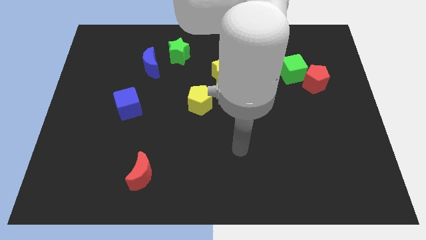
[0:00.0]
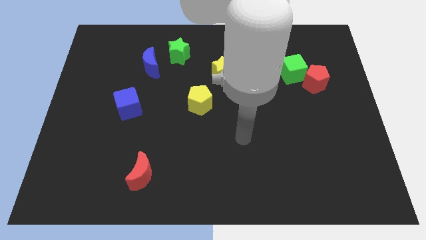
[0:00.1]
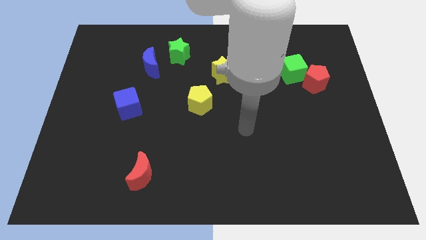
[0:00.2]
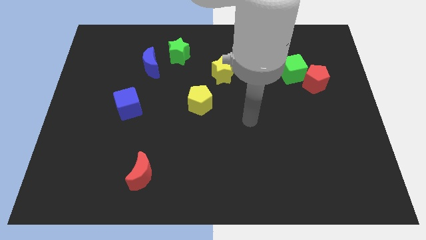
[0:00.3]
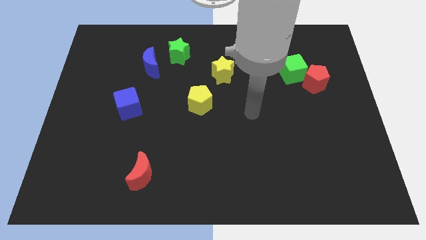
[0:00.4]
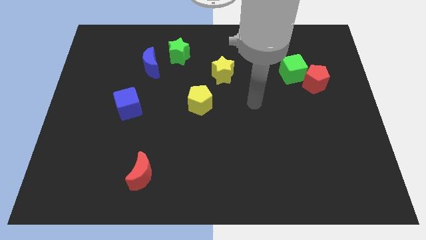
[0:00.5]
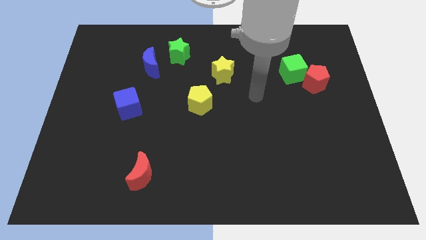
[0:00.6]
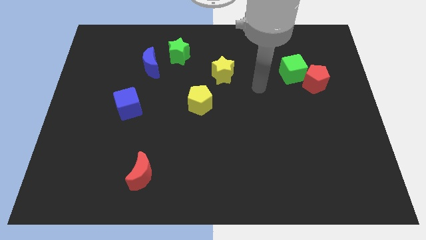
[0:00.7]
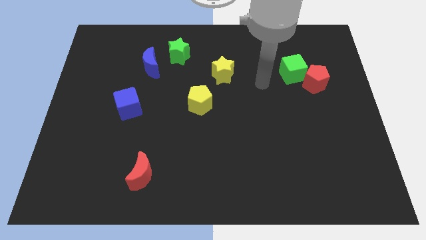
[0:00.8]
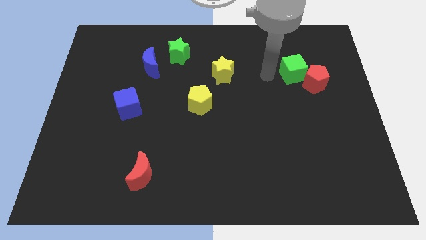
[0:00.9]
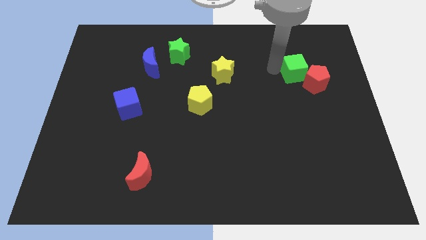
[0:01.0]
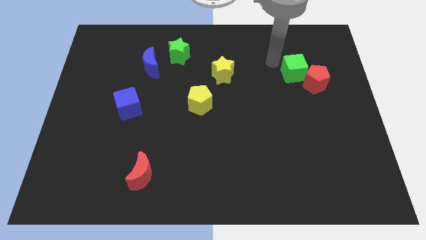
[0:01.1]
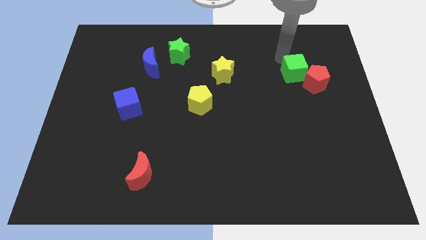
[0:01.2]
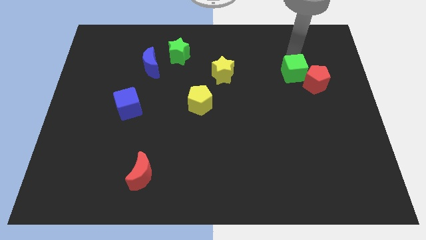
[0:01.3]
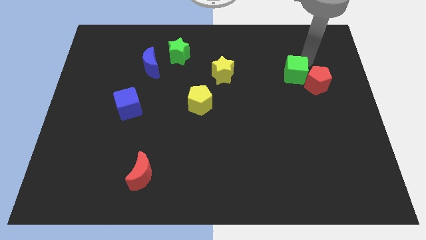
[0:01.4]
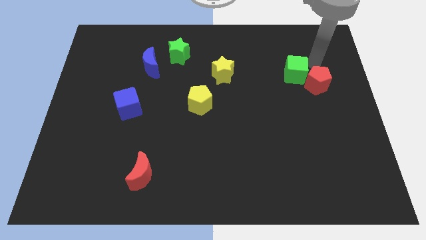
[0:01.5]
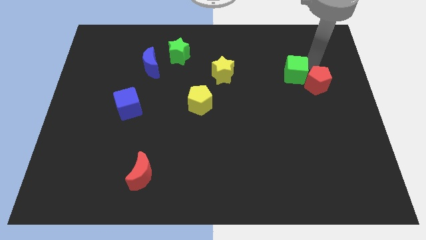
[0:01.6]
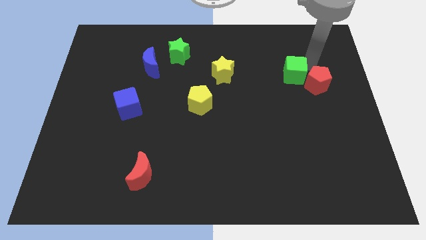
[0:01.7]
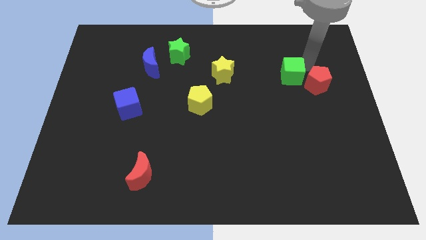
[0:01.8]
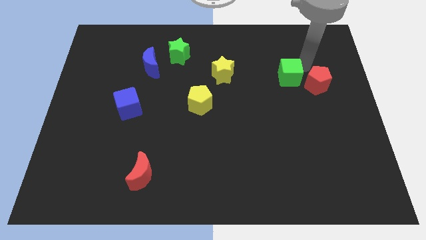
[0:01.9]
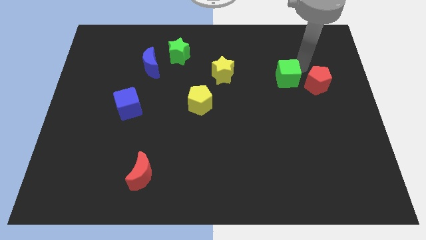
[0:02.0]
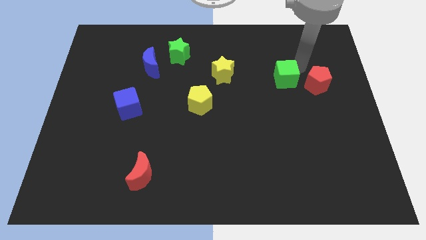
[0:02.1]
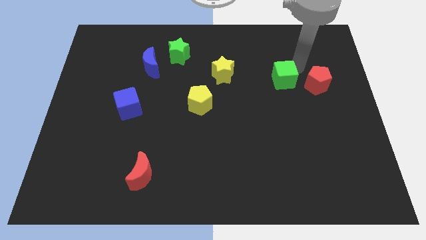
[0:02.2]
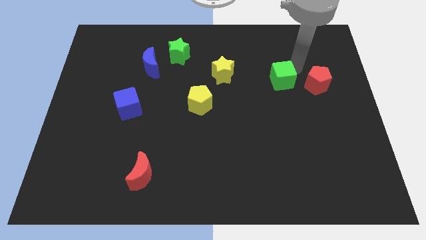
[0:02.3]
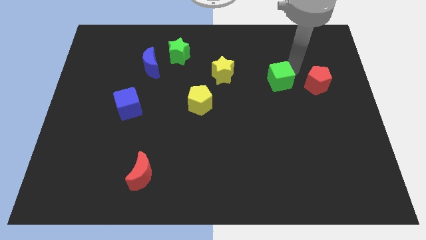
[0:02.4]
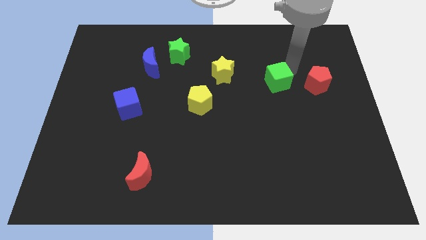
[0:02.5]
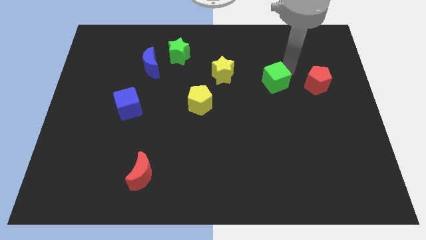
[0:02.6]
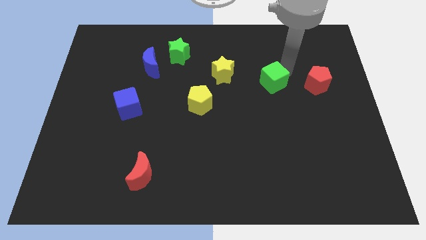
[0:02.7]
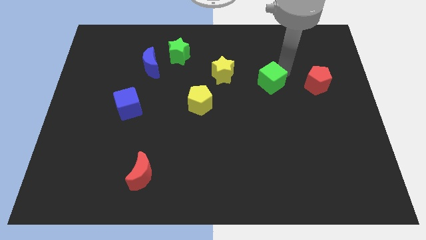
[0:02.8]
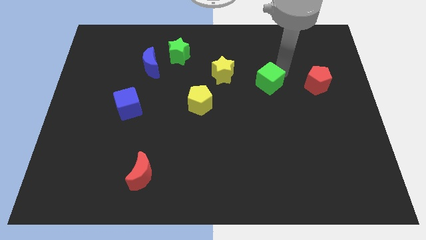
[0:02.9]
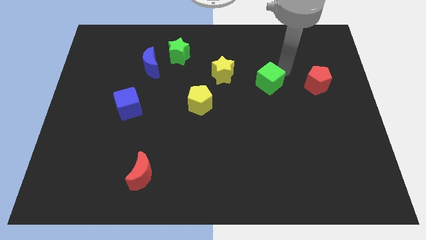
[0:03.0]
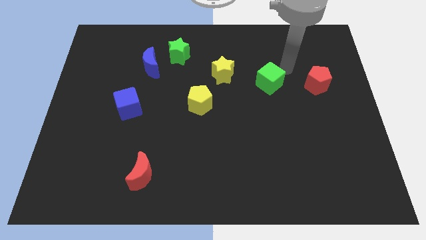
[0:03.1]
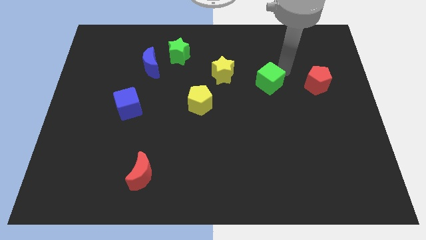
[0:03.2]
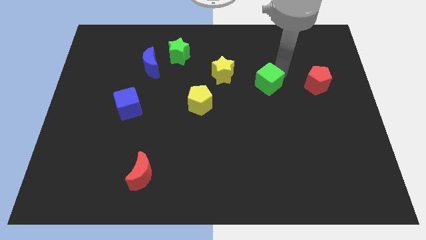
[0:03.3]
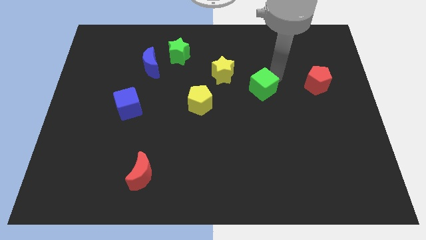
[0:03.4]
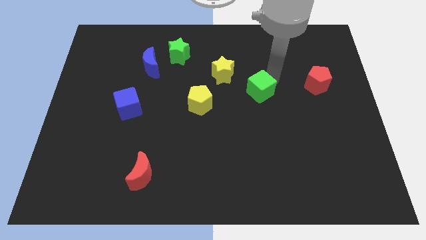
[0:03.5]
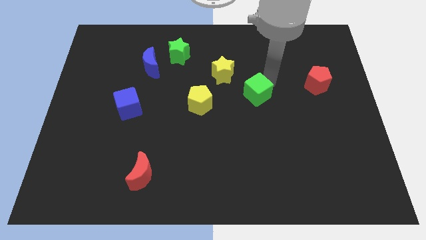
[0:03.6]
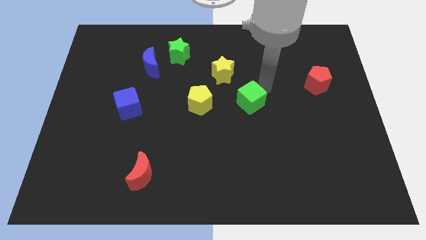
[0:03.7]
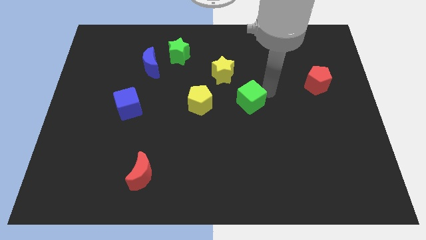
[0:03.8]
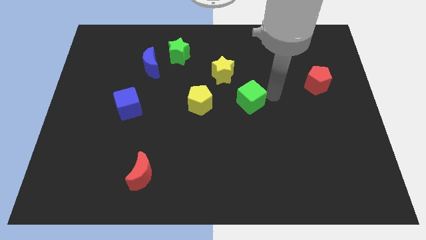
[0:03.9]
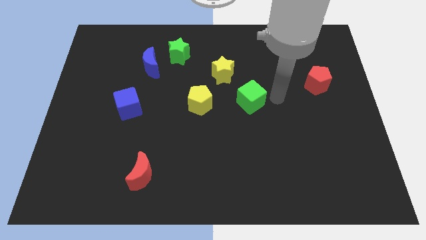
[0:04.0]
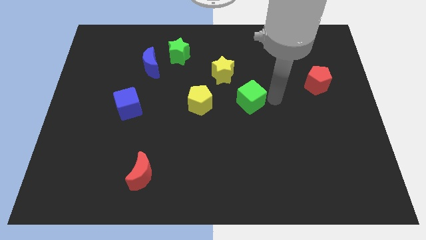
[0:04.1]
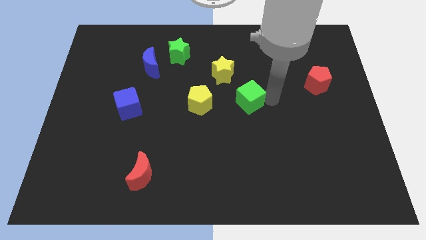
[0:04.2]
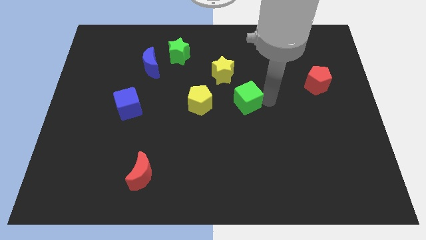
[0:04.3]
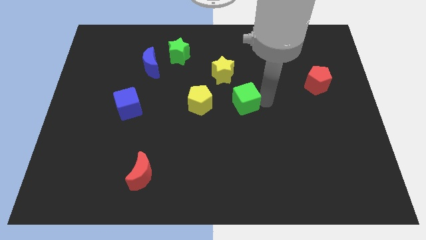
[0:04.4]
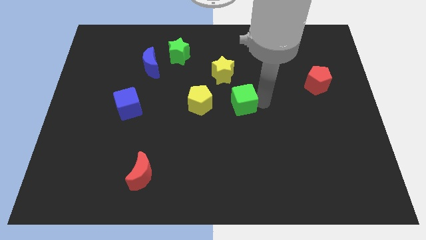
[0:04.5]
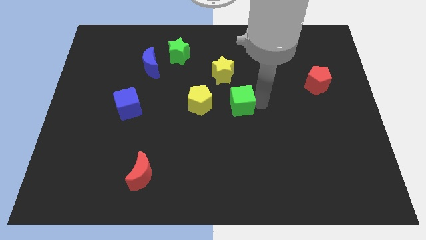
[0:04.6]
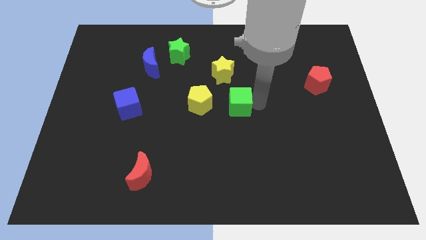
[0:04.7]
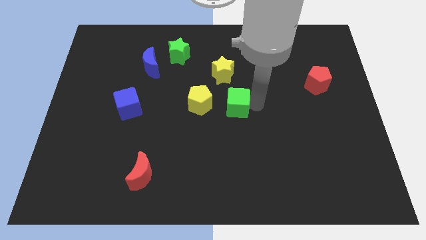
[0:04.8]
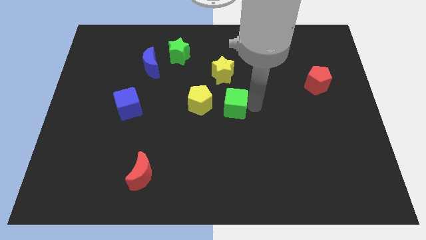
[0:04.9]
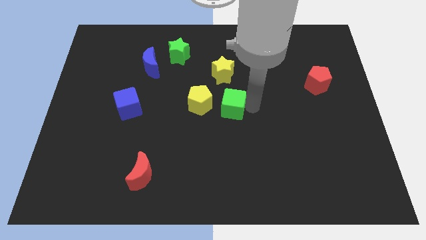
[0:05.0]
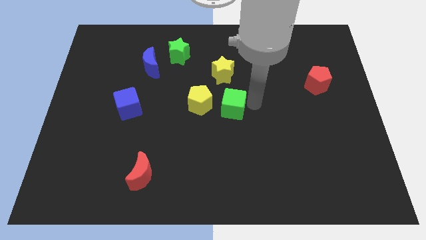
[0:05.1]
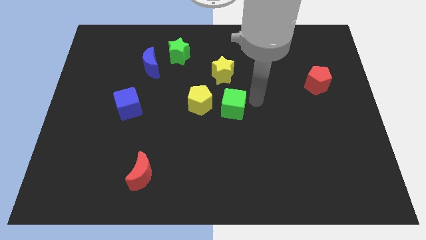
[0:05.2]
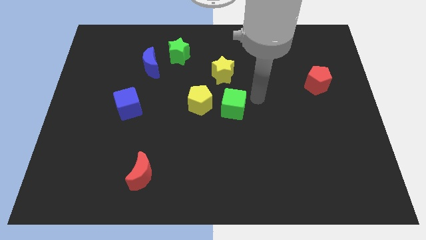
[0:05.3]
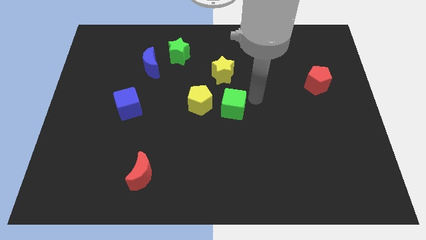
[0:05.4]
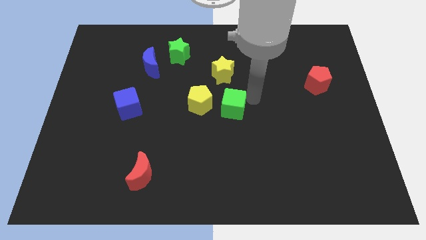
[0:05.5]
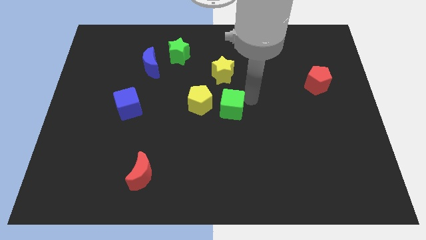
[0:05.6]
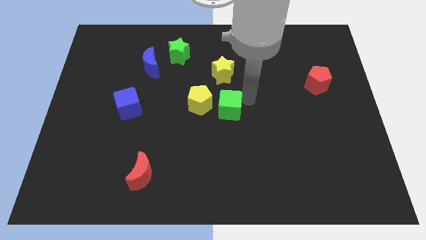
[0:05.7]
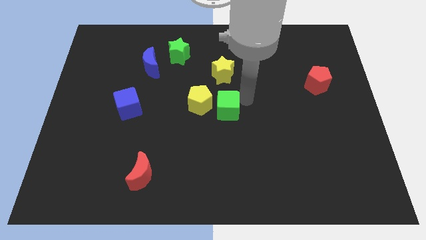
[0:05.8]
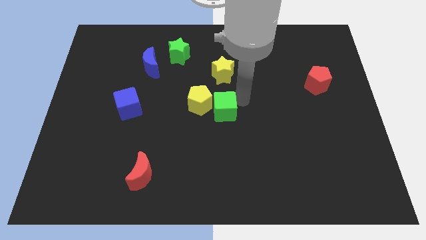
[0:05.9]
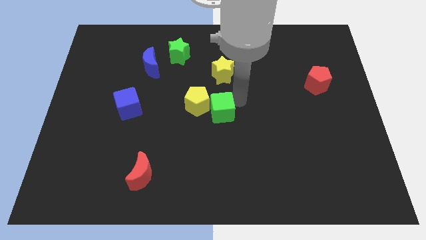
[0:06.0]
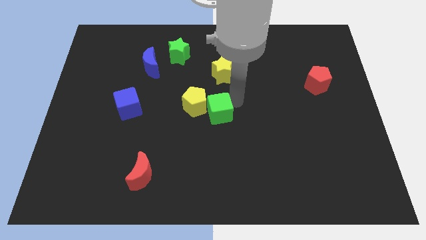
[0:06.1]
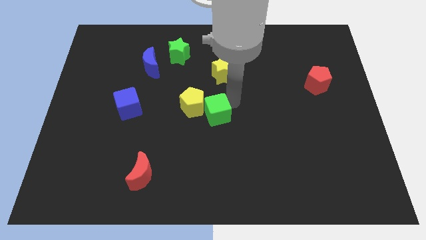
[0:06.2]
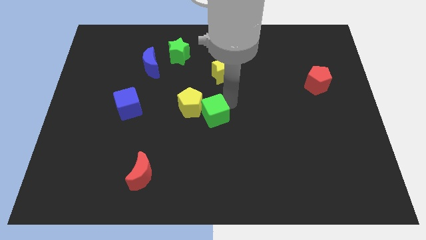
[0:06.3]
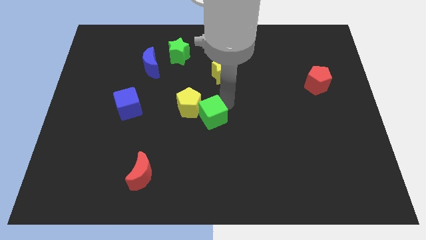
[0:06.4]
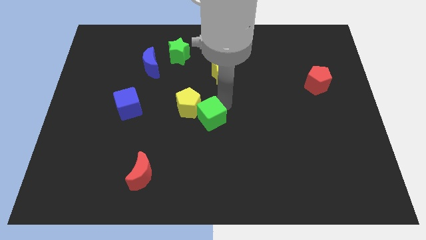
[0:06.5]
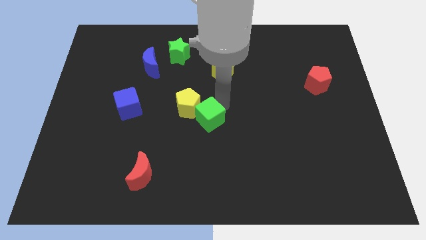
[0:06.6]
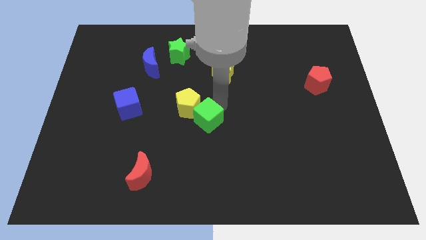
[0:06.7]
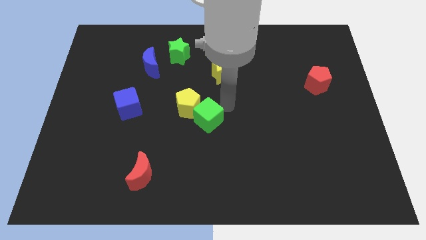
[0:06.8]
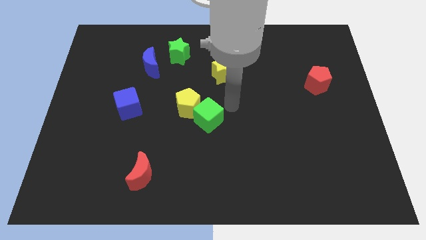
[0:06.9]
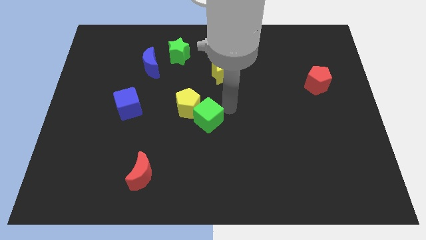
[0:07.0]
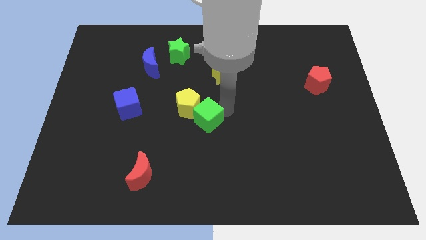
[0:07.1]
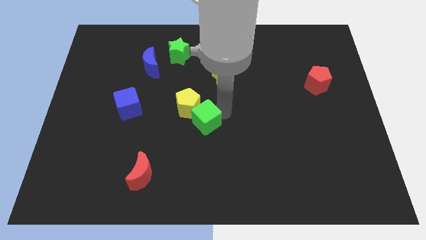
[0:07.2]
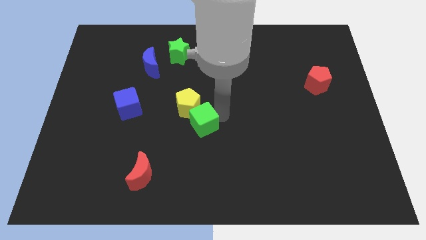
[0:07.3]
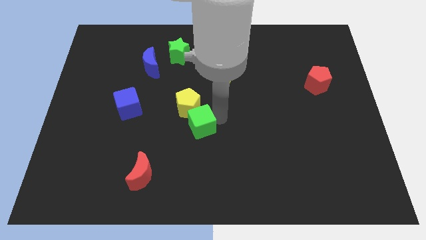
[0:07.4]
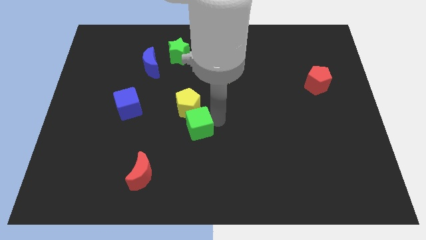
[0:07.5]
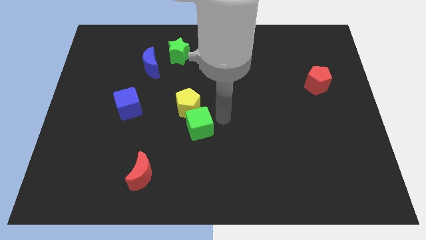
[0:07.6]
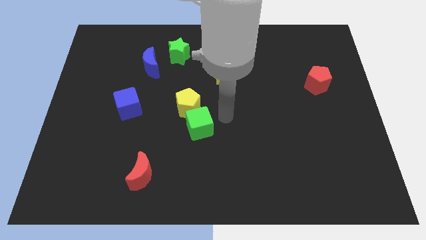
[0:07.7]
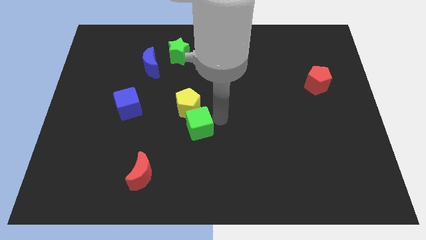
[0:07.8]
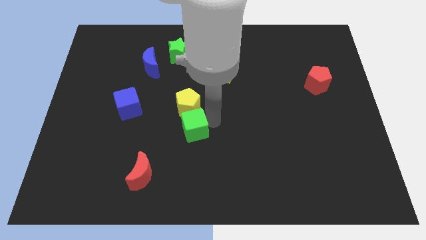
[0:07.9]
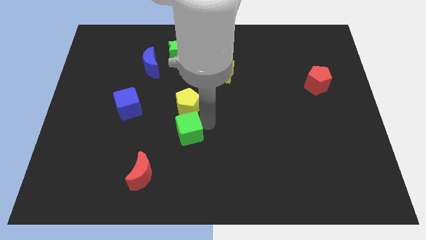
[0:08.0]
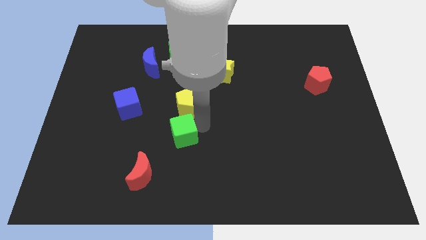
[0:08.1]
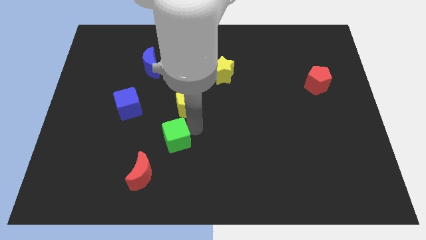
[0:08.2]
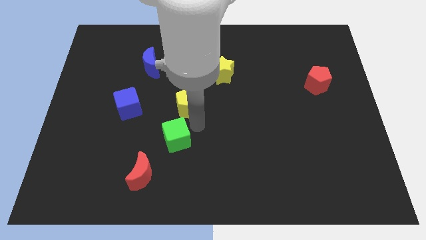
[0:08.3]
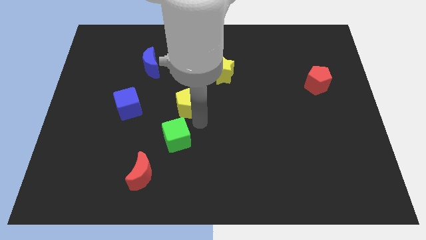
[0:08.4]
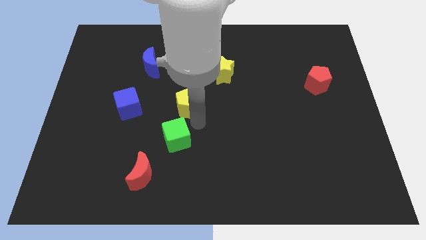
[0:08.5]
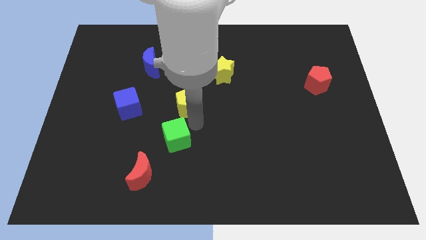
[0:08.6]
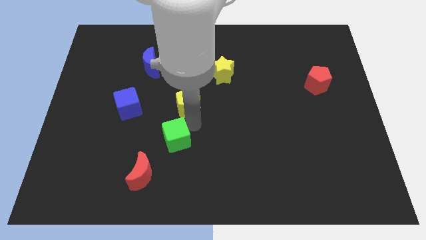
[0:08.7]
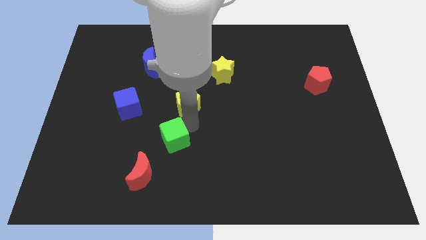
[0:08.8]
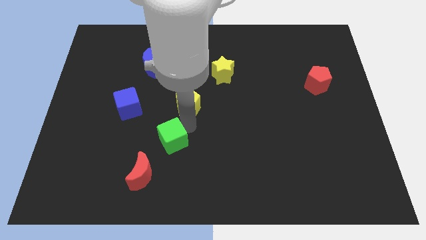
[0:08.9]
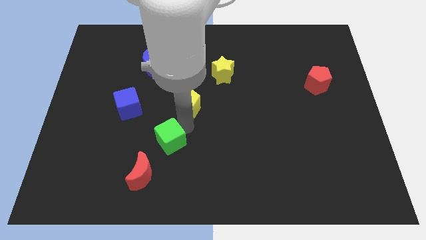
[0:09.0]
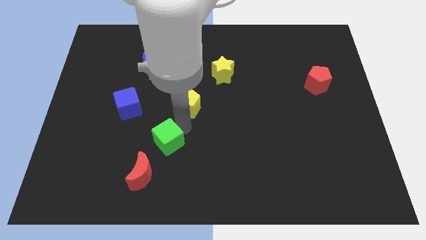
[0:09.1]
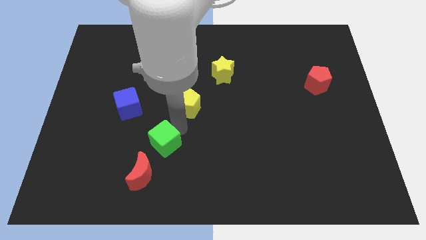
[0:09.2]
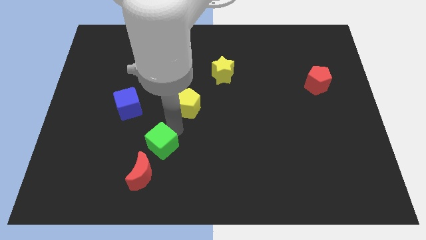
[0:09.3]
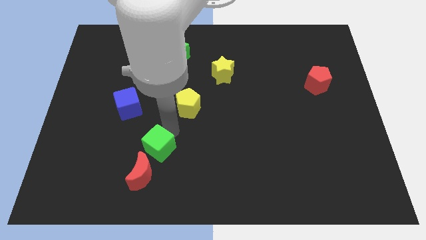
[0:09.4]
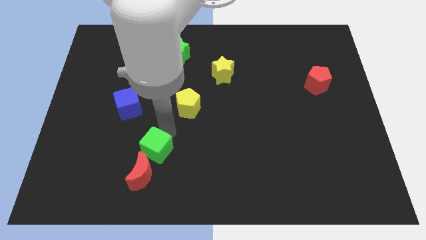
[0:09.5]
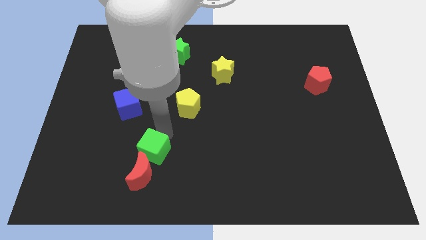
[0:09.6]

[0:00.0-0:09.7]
push the green cube to the red moon
